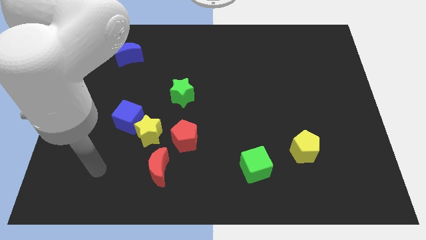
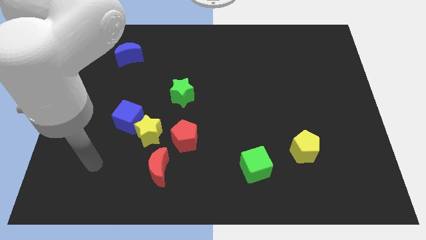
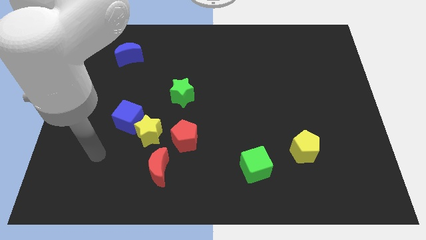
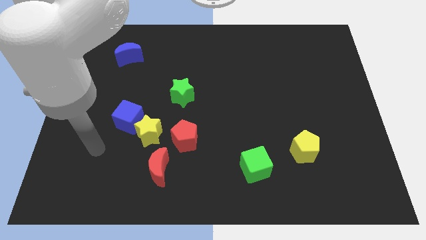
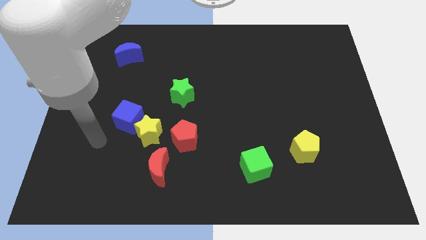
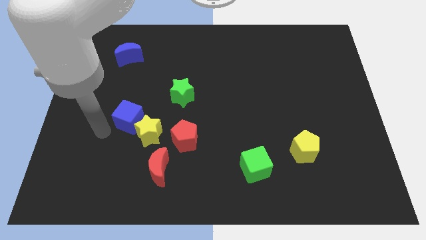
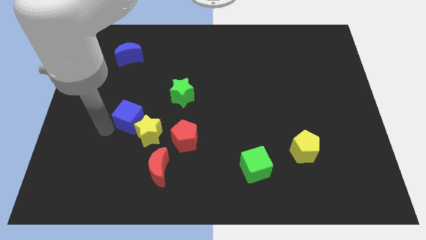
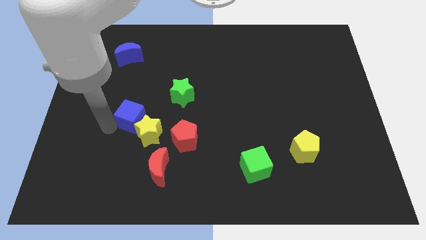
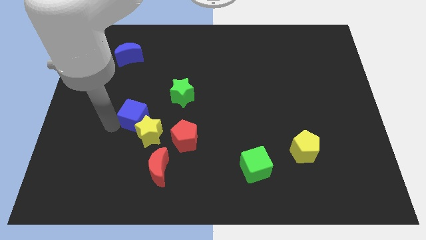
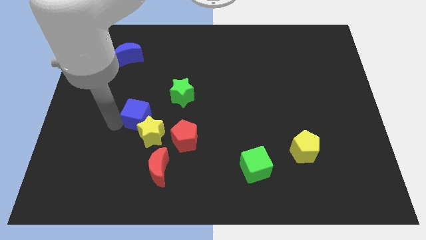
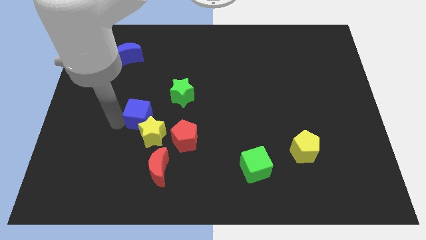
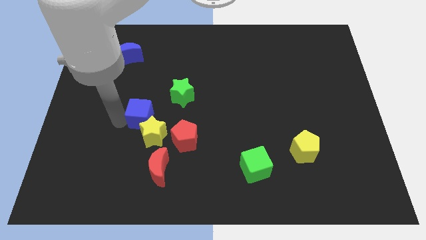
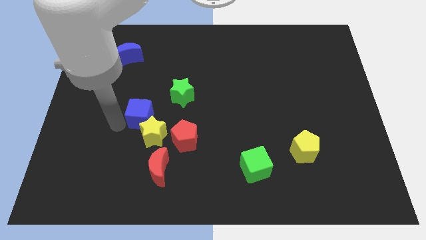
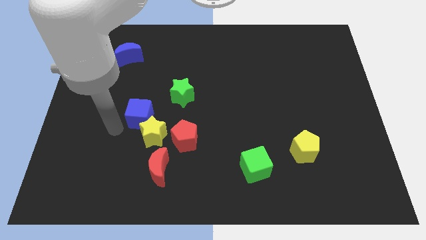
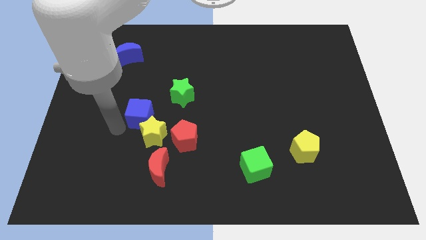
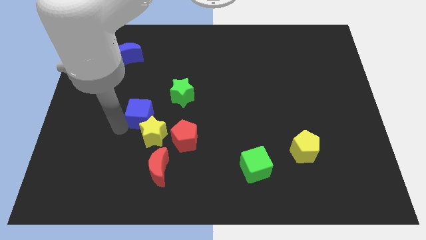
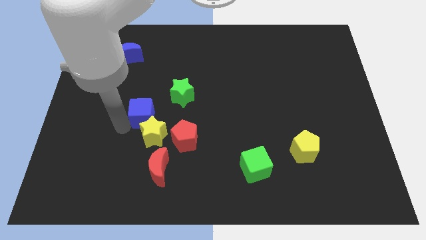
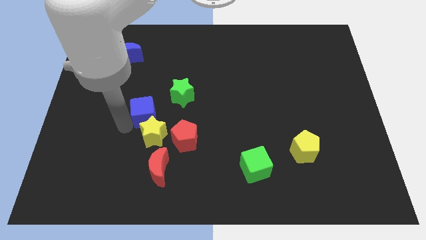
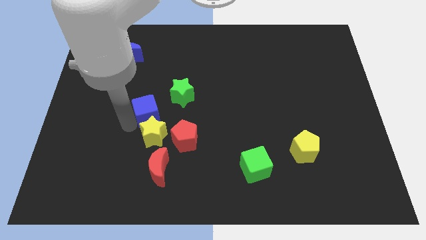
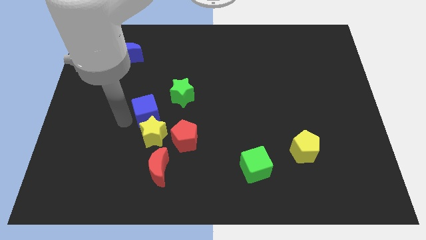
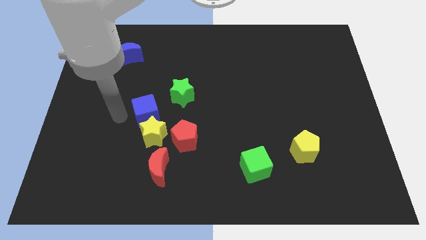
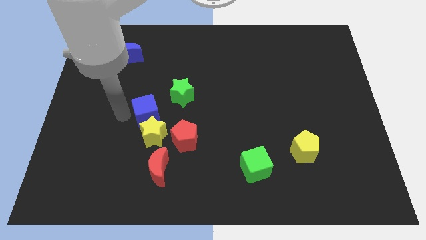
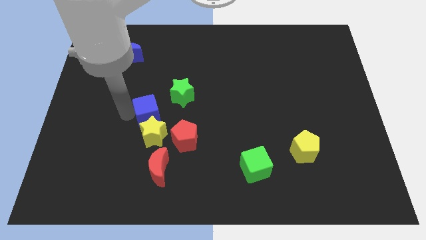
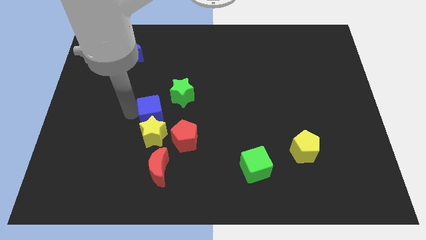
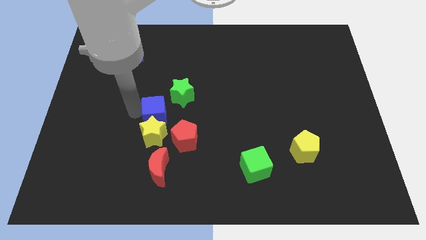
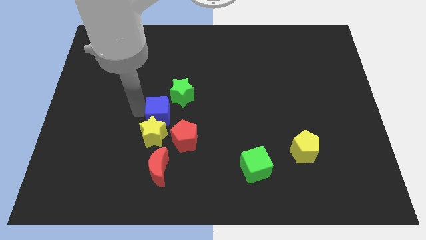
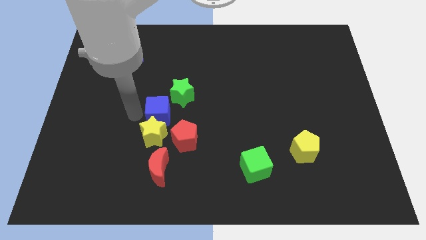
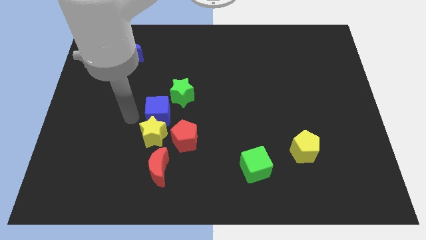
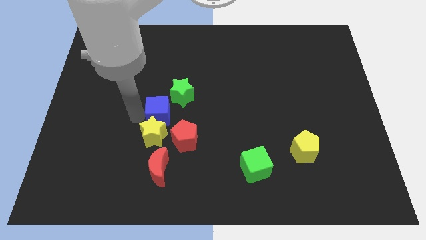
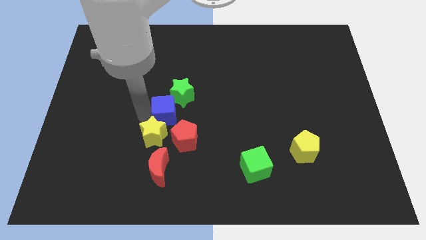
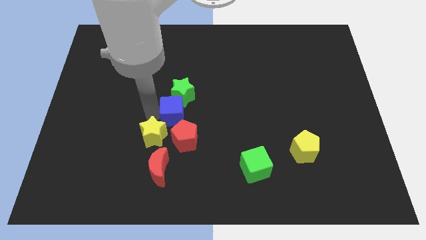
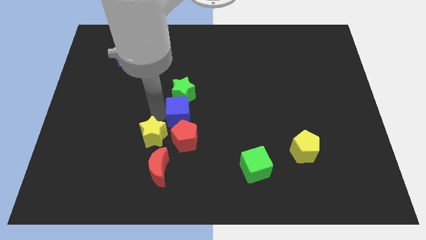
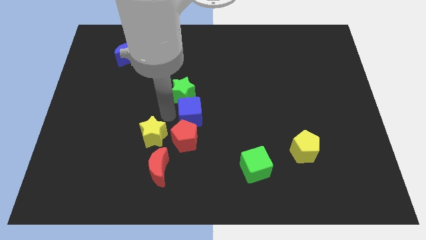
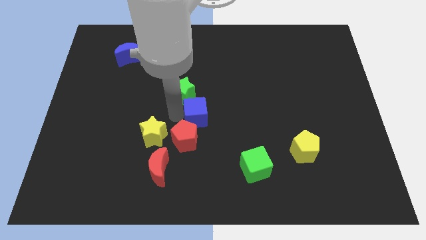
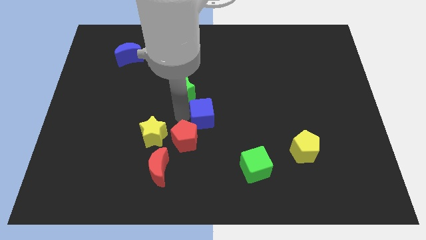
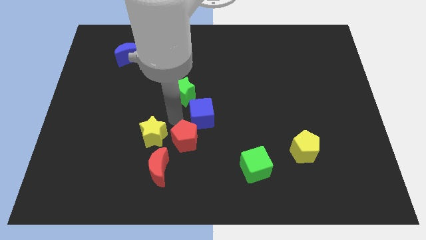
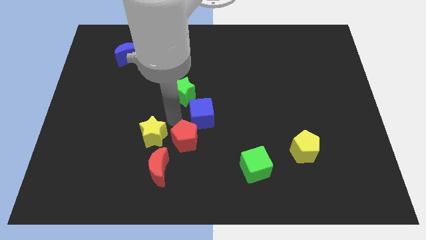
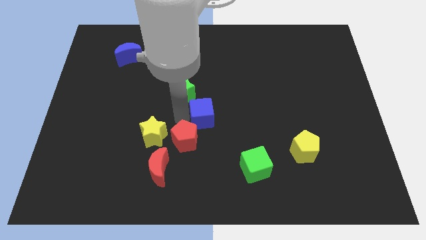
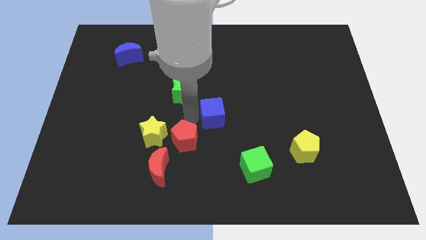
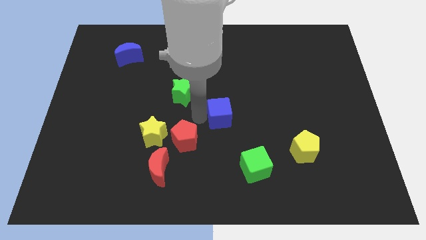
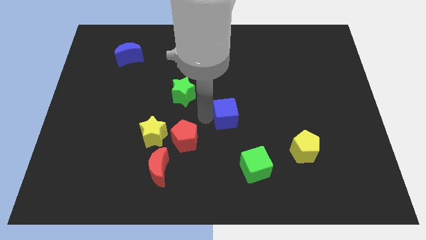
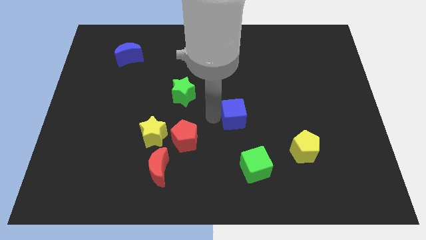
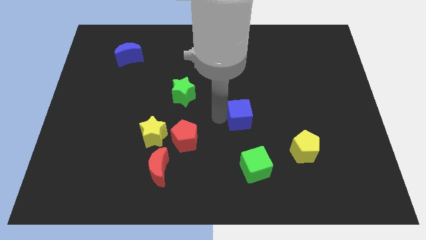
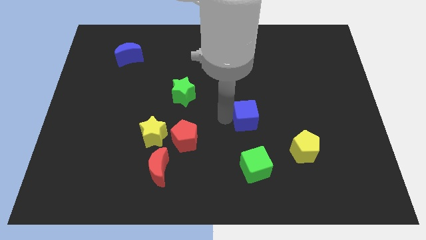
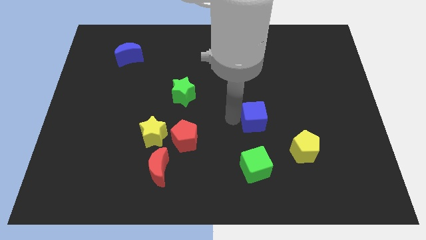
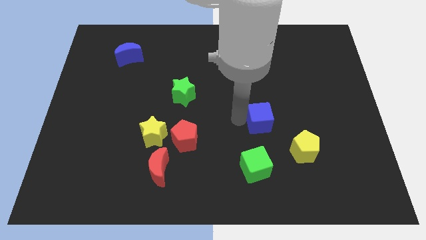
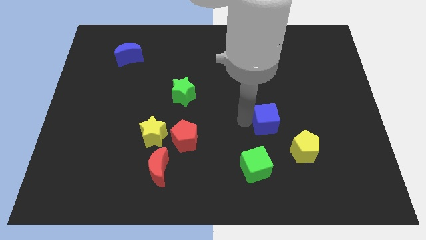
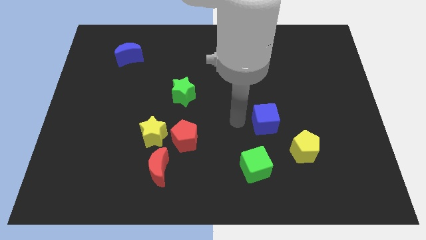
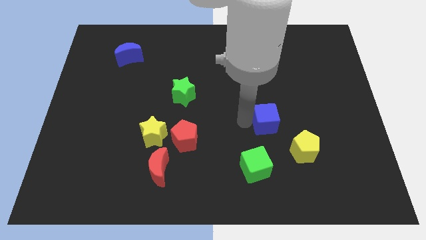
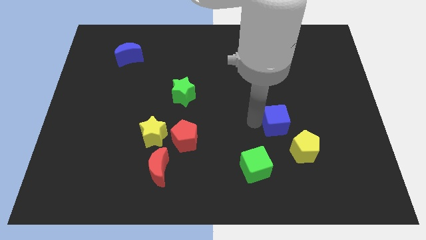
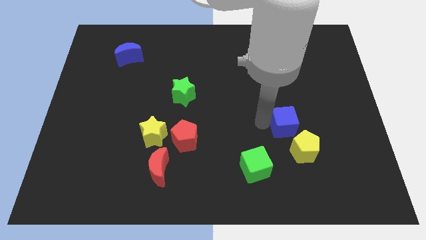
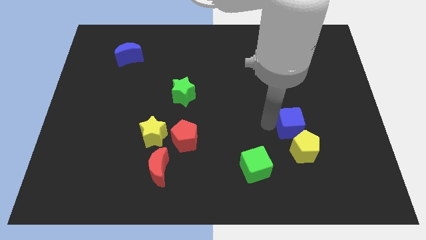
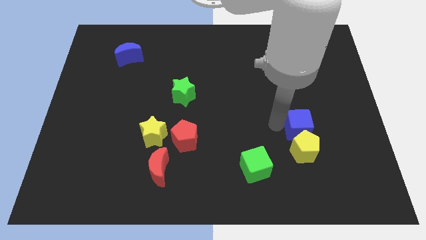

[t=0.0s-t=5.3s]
move the blue cube to the top right of the yellow pentagon

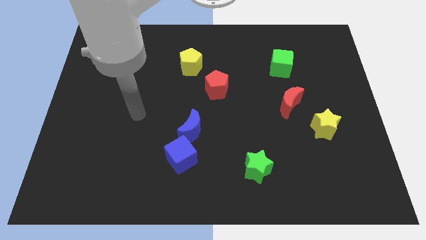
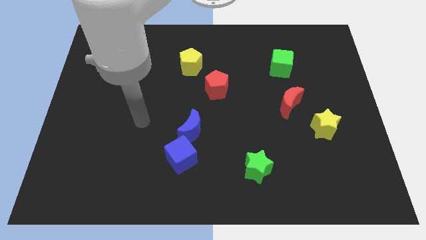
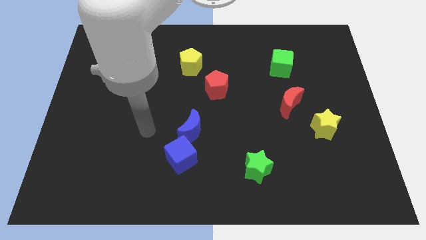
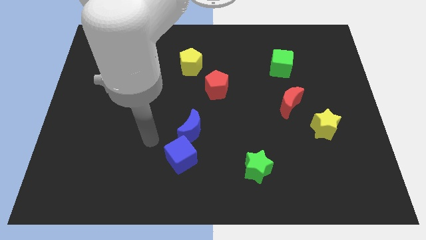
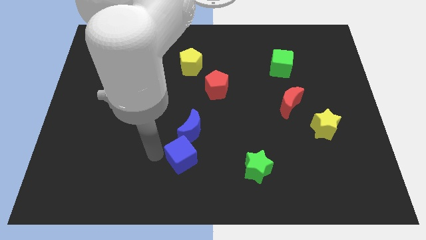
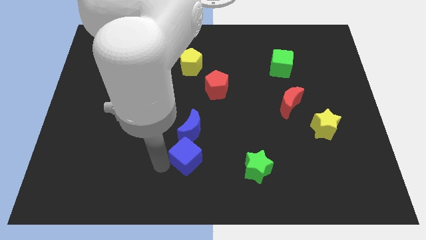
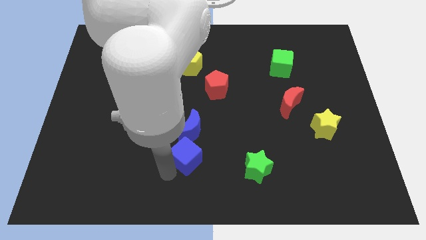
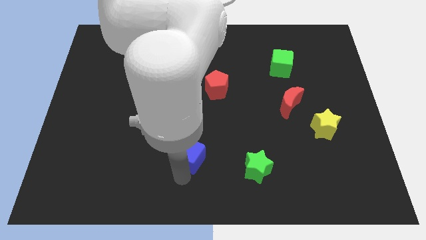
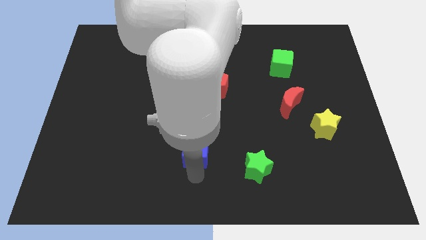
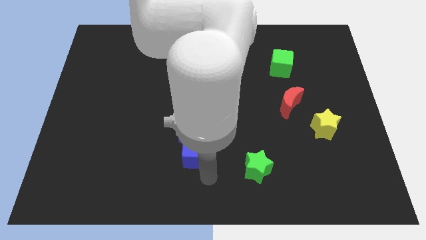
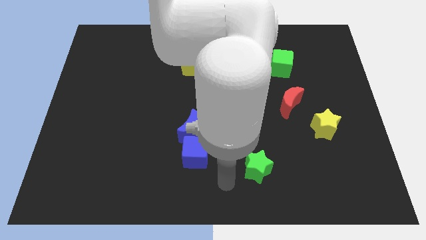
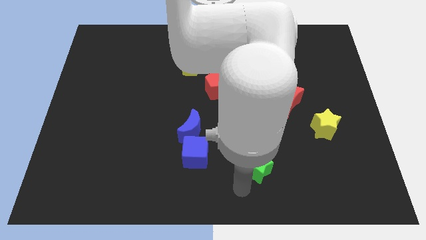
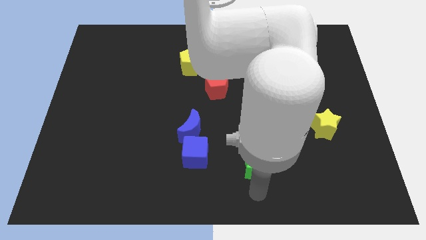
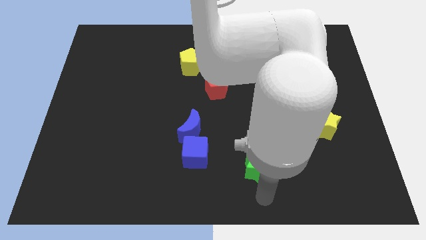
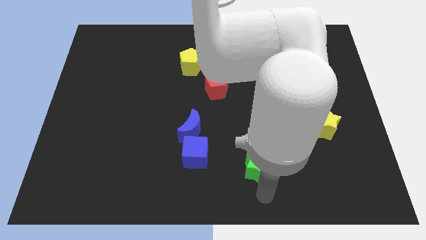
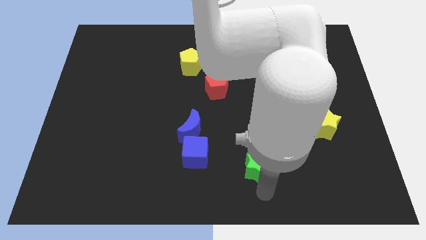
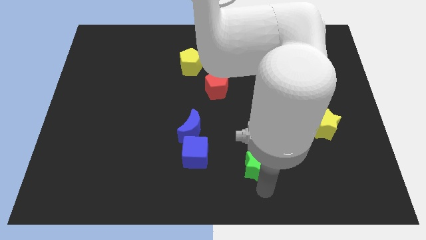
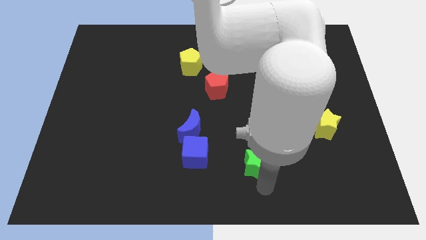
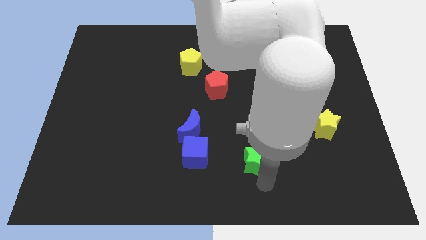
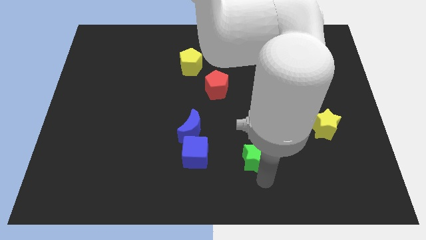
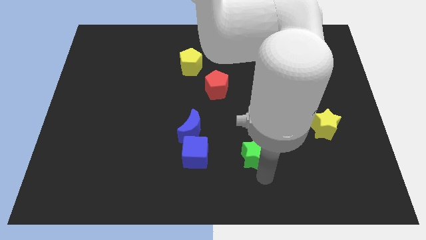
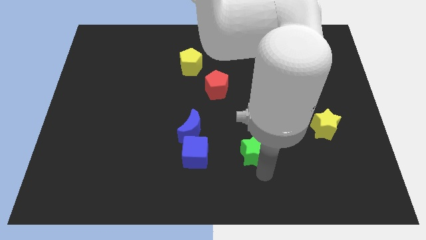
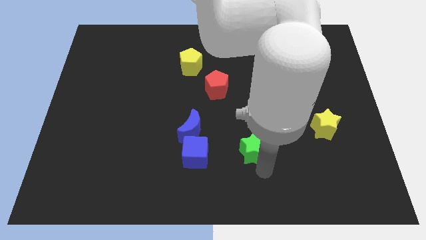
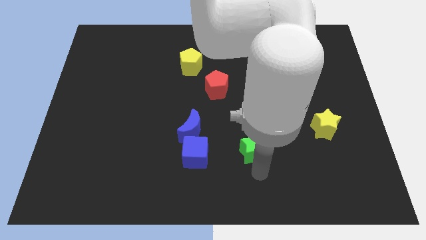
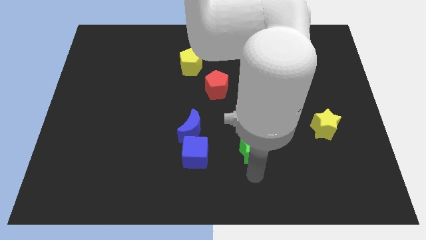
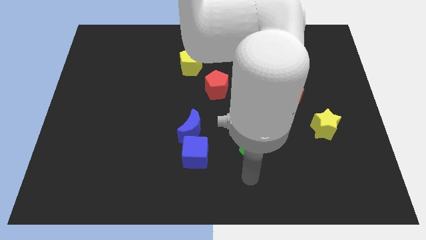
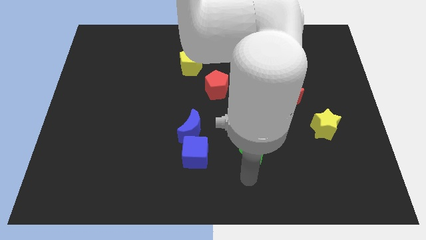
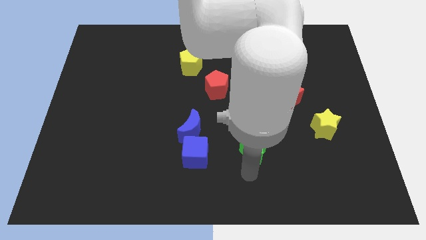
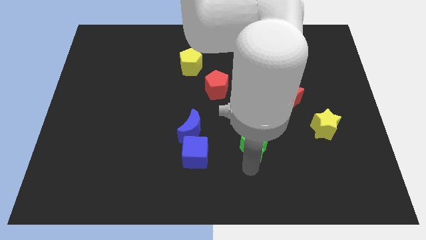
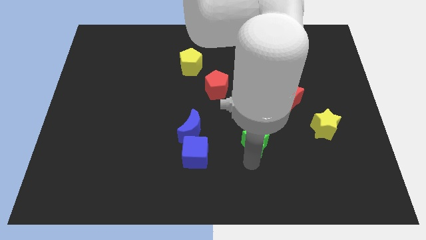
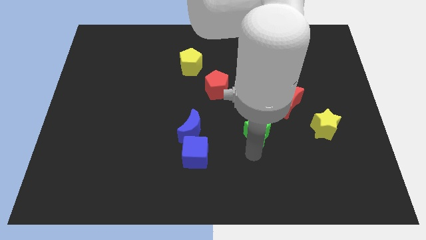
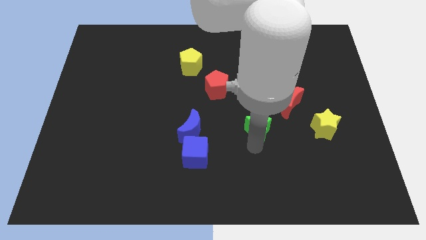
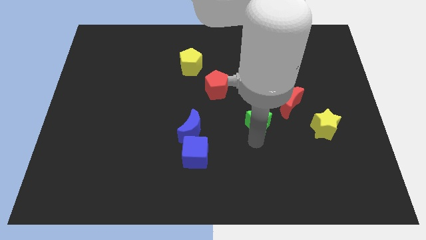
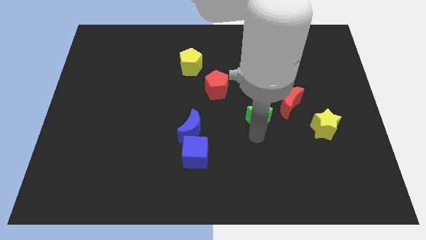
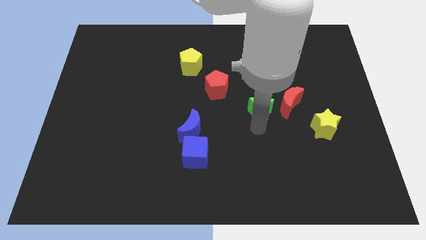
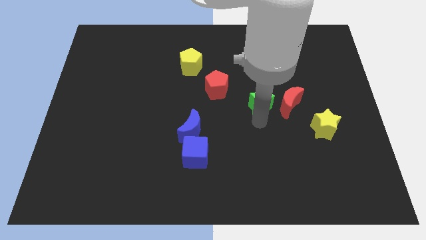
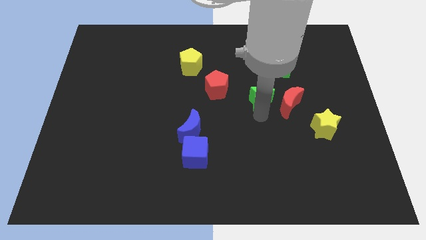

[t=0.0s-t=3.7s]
put the green star right of the red pentagon
